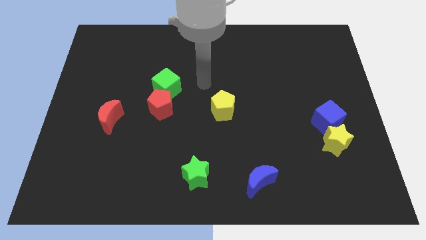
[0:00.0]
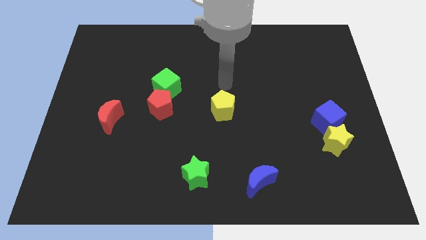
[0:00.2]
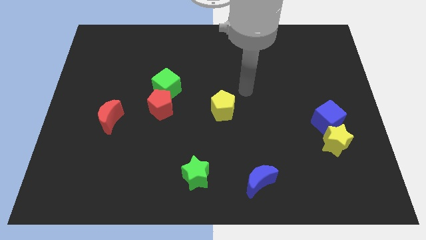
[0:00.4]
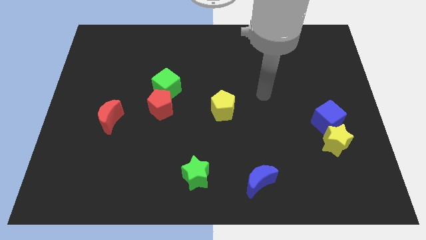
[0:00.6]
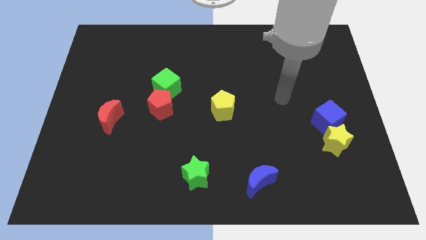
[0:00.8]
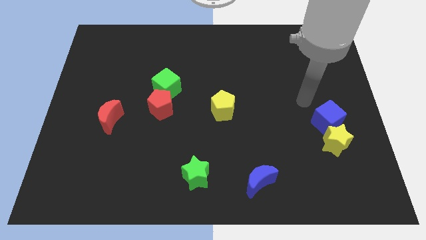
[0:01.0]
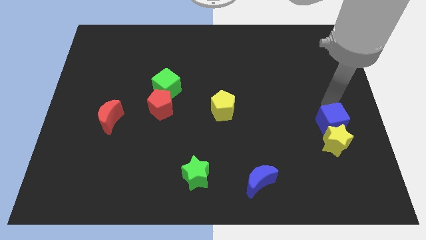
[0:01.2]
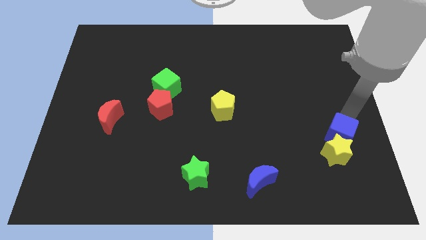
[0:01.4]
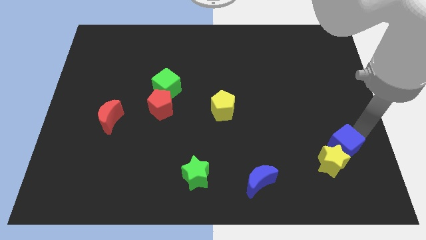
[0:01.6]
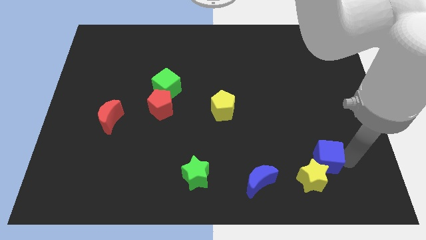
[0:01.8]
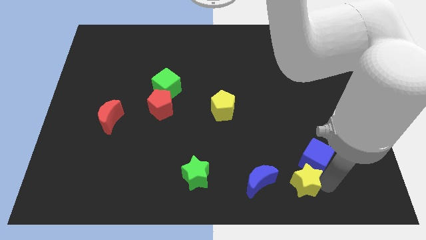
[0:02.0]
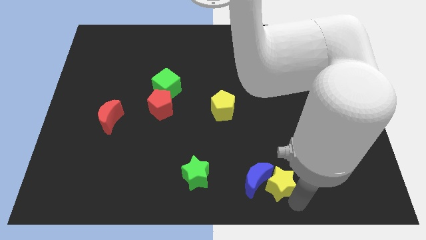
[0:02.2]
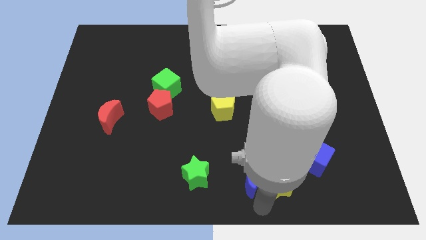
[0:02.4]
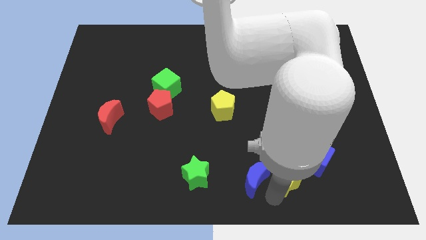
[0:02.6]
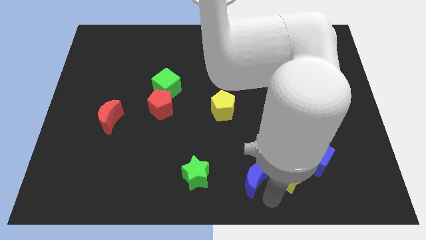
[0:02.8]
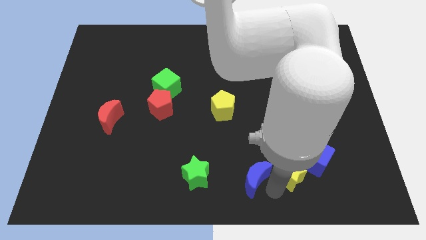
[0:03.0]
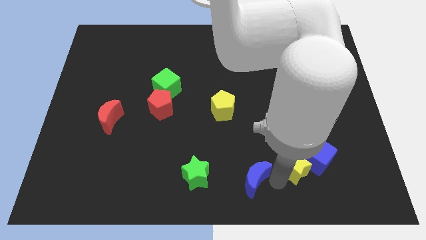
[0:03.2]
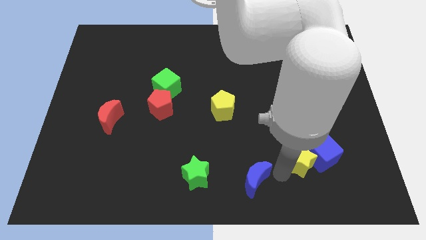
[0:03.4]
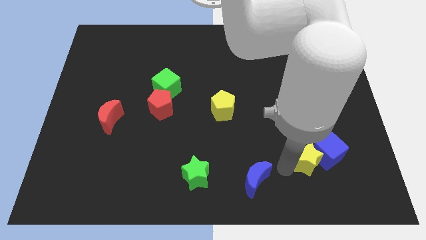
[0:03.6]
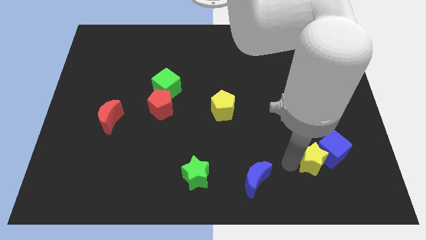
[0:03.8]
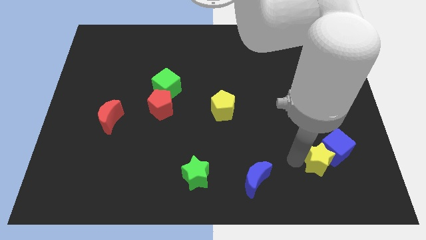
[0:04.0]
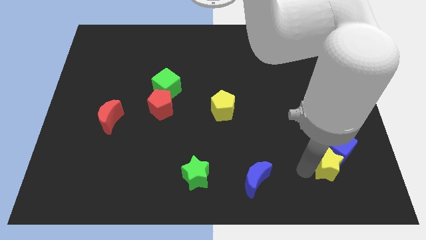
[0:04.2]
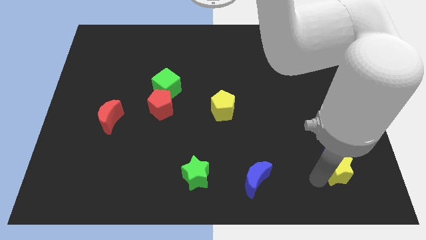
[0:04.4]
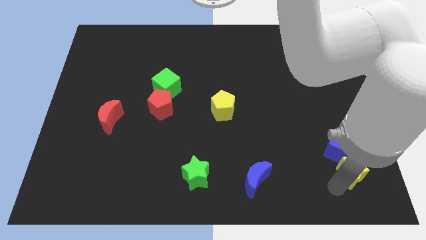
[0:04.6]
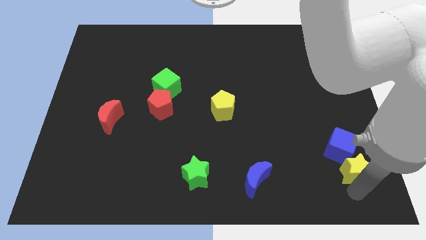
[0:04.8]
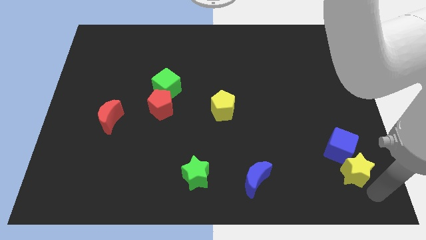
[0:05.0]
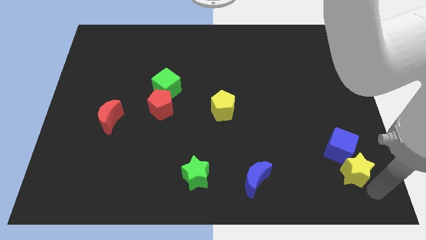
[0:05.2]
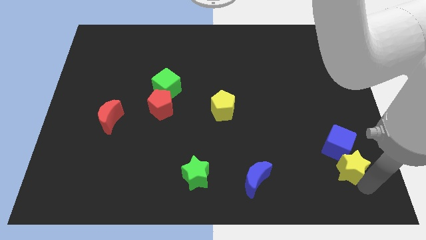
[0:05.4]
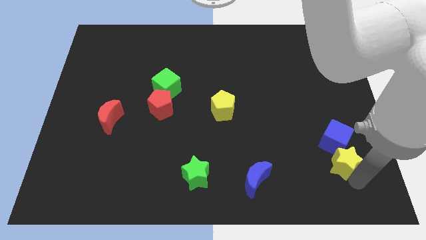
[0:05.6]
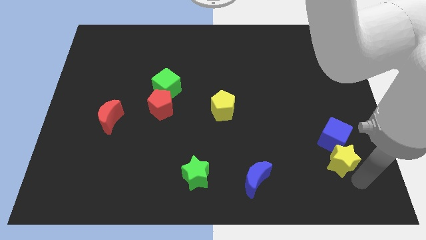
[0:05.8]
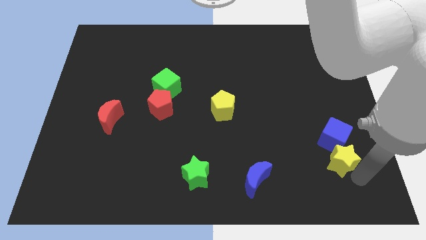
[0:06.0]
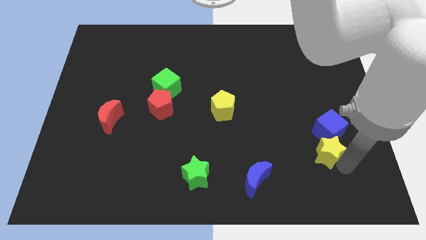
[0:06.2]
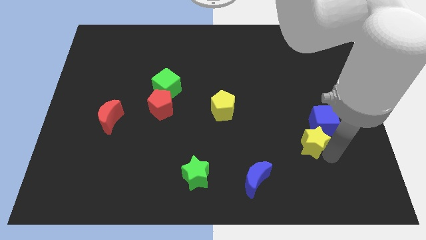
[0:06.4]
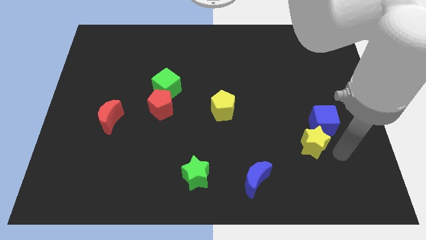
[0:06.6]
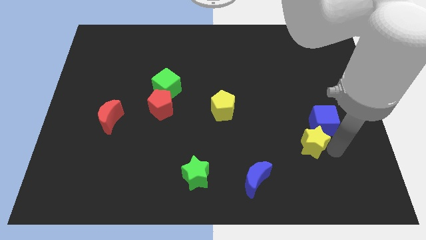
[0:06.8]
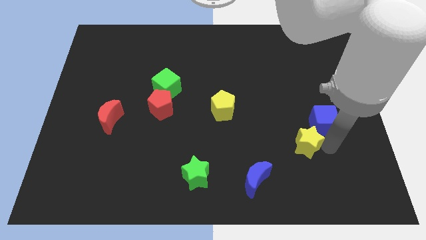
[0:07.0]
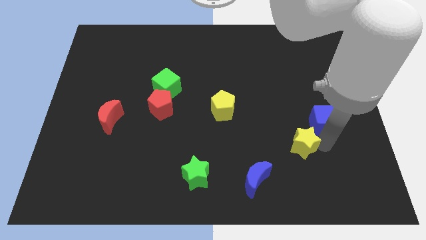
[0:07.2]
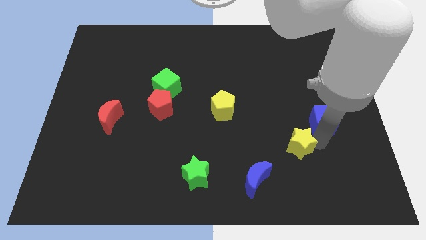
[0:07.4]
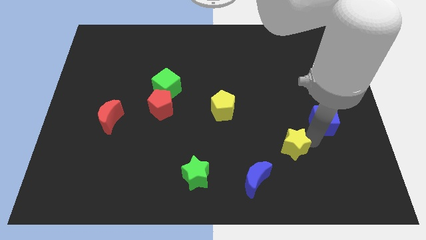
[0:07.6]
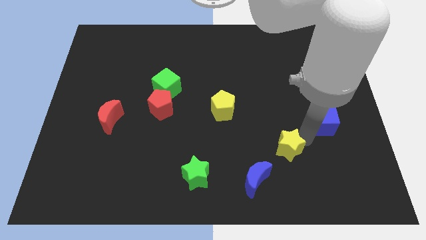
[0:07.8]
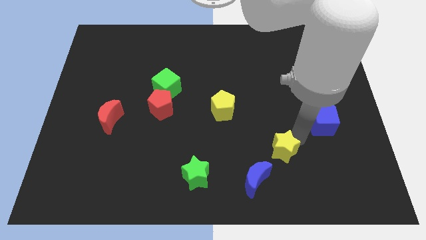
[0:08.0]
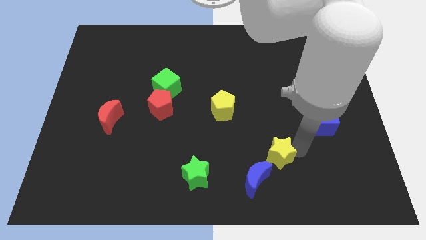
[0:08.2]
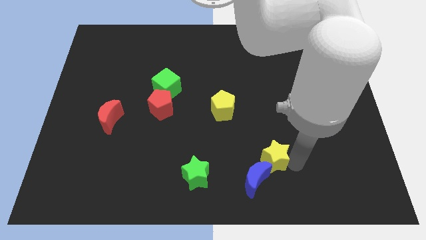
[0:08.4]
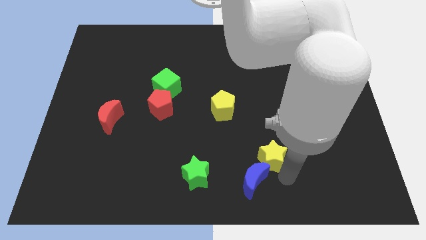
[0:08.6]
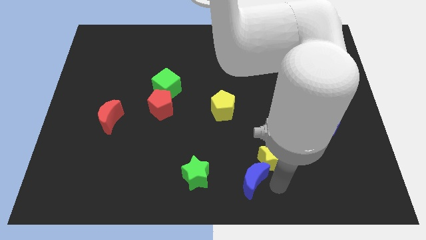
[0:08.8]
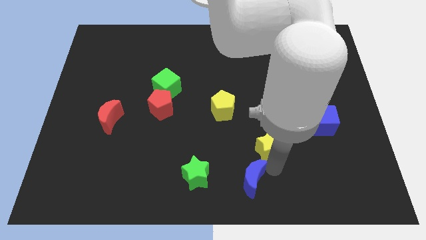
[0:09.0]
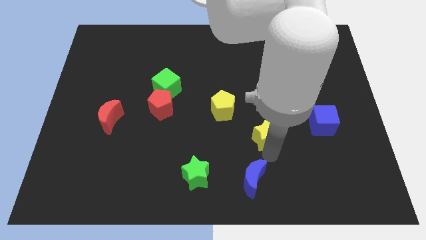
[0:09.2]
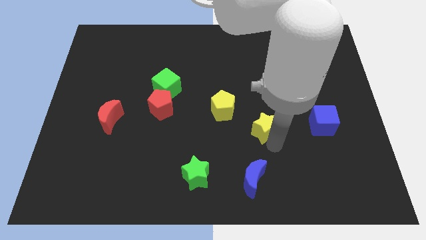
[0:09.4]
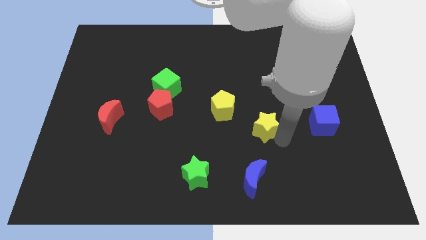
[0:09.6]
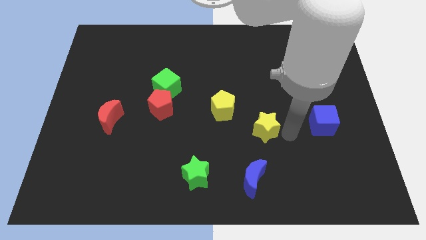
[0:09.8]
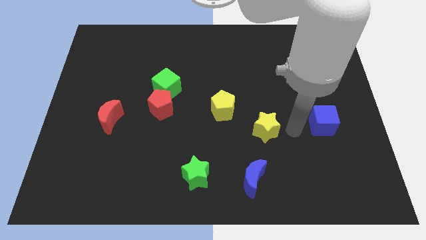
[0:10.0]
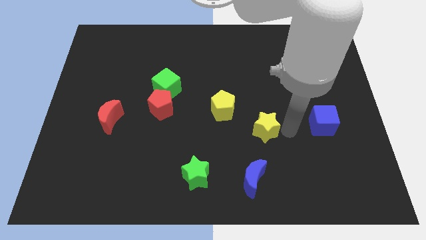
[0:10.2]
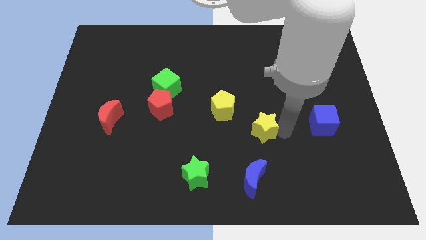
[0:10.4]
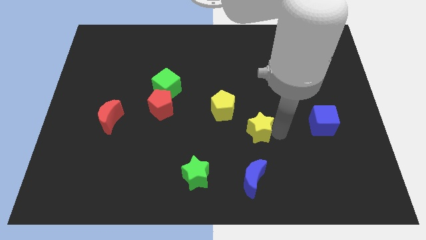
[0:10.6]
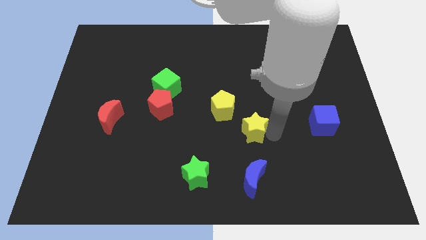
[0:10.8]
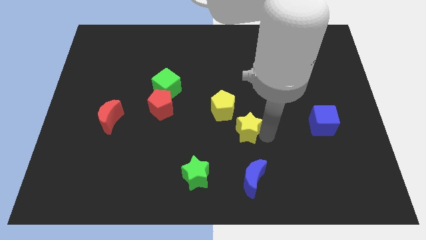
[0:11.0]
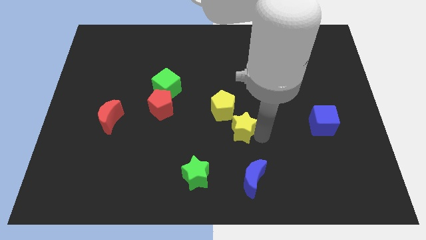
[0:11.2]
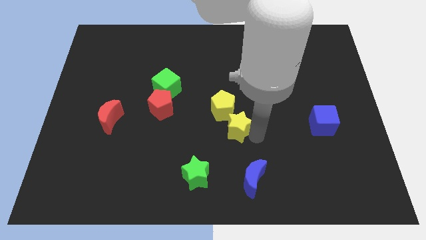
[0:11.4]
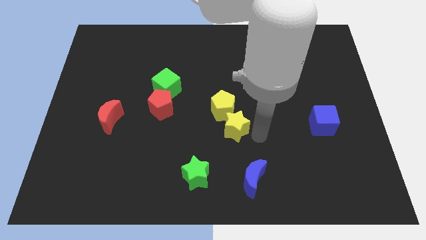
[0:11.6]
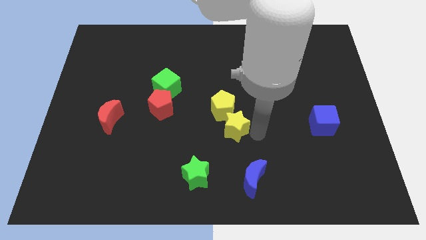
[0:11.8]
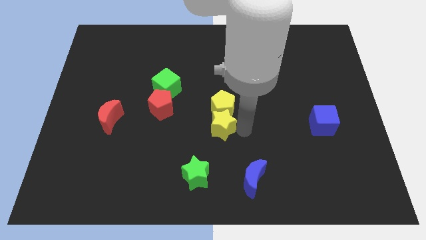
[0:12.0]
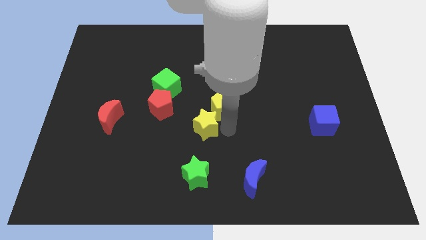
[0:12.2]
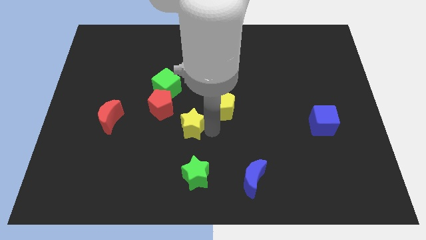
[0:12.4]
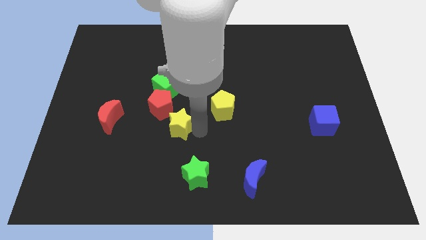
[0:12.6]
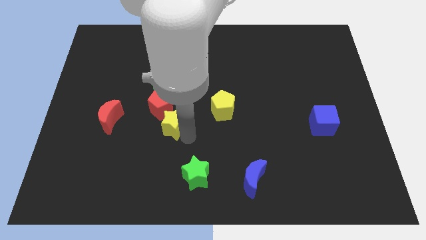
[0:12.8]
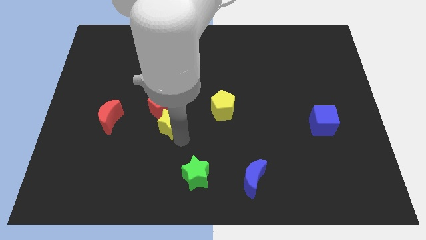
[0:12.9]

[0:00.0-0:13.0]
put the yellow star next to the red pentagon

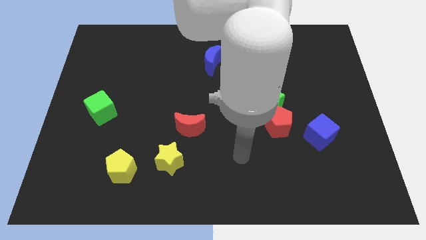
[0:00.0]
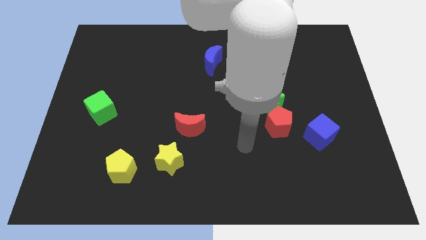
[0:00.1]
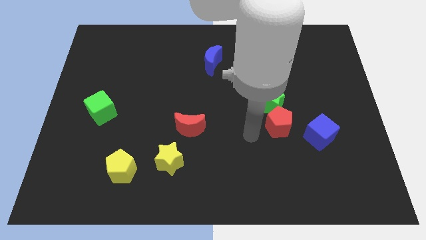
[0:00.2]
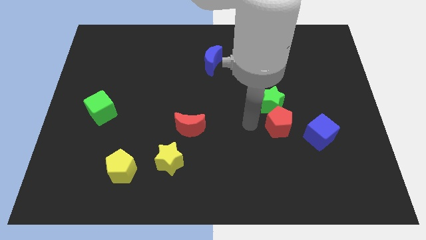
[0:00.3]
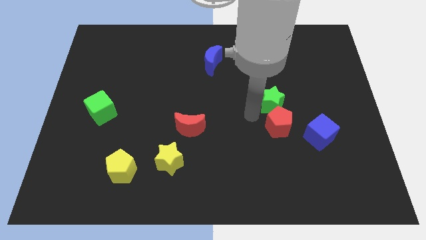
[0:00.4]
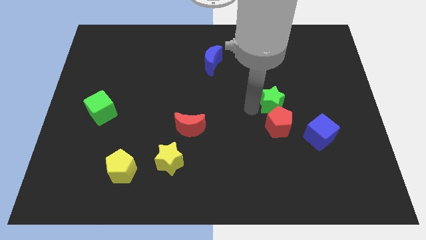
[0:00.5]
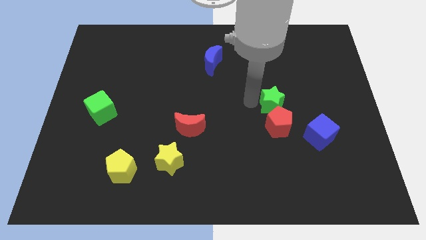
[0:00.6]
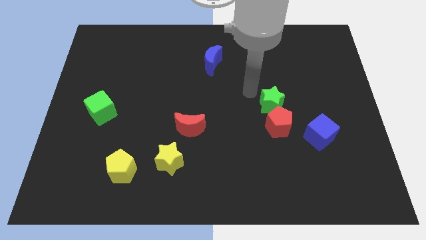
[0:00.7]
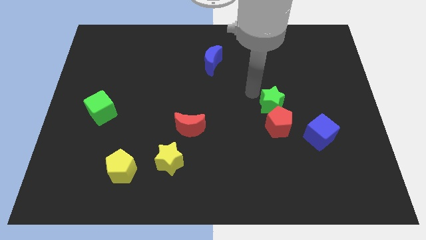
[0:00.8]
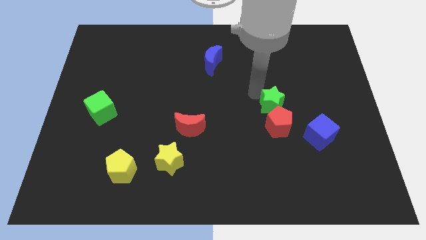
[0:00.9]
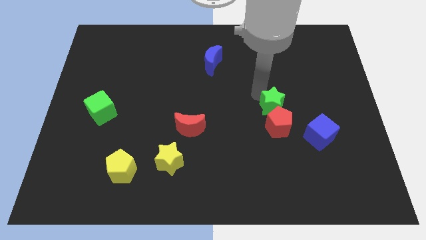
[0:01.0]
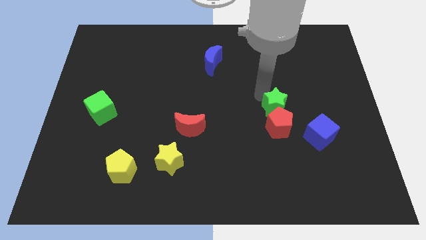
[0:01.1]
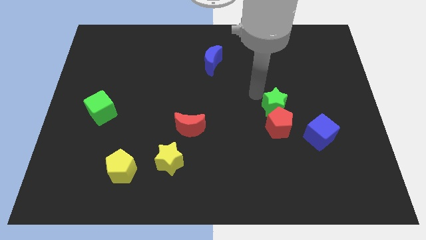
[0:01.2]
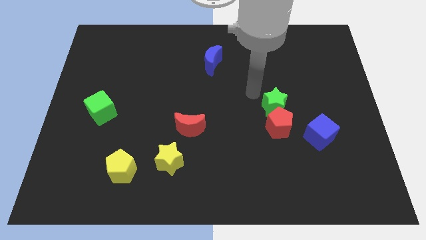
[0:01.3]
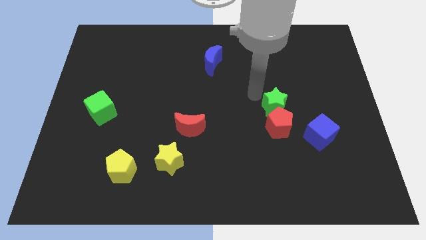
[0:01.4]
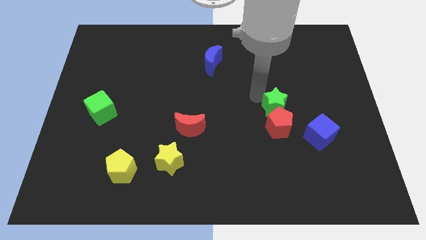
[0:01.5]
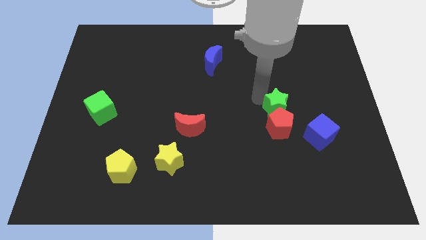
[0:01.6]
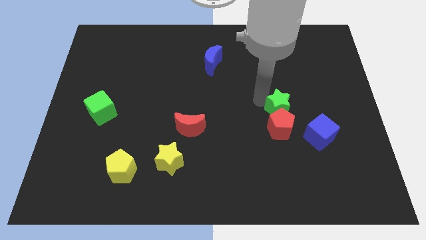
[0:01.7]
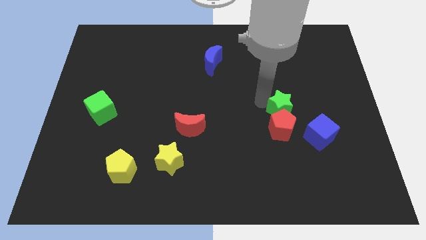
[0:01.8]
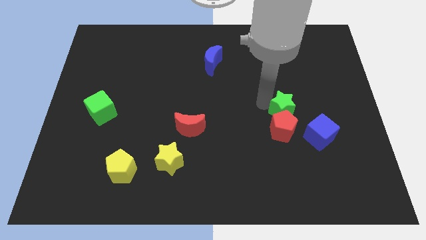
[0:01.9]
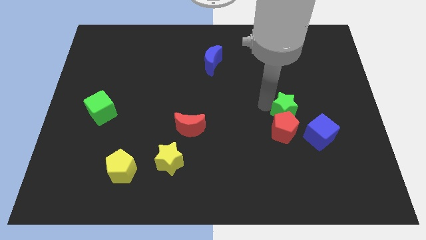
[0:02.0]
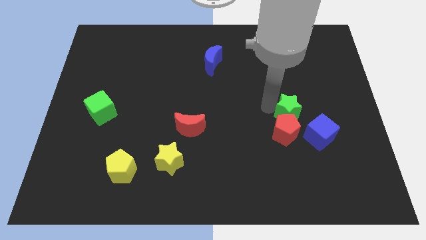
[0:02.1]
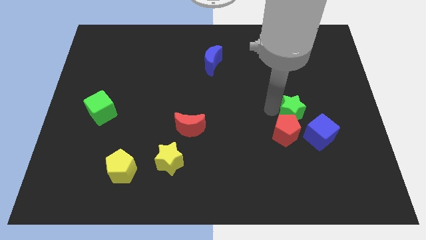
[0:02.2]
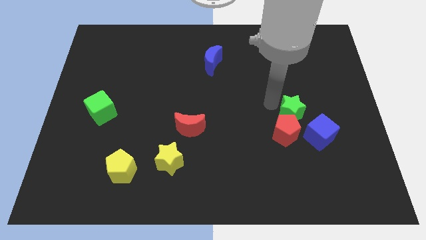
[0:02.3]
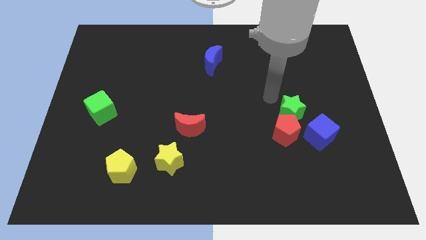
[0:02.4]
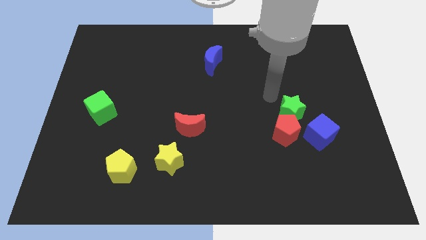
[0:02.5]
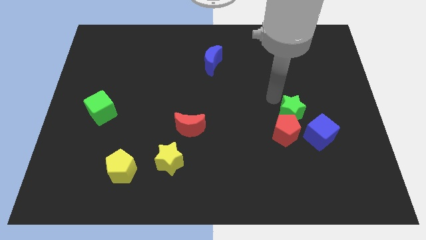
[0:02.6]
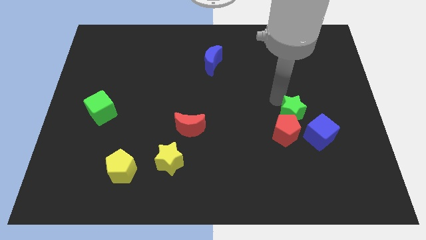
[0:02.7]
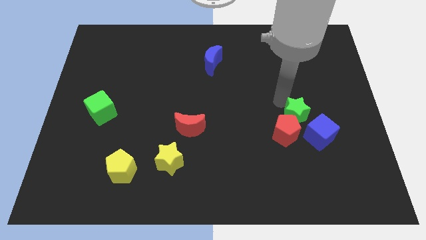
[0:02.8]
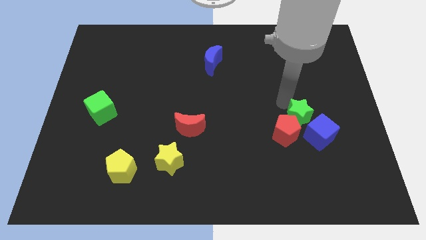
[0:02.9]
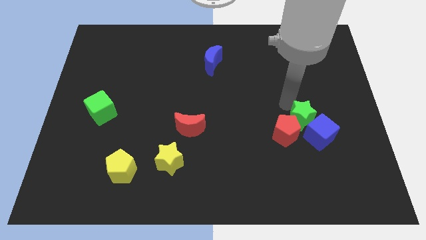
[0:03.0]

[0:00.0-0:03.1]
move the green star close to the blue cube
